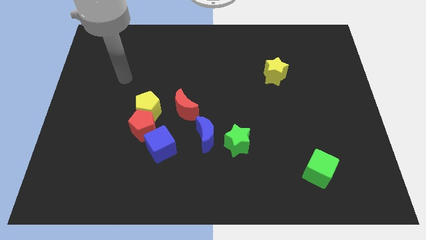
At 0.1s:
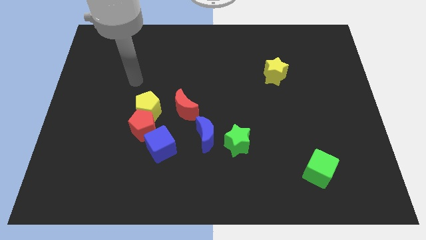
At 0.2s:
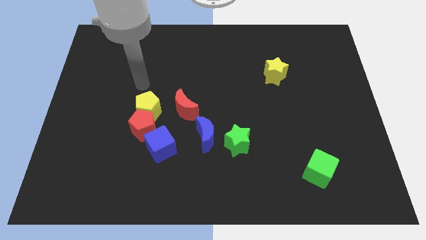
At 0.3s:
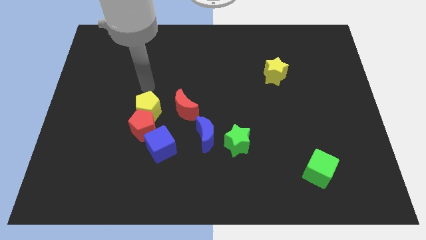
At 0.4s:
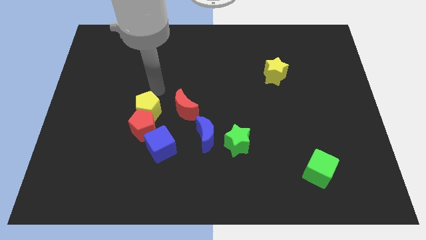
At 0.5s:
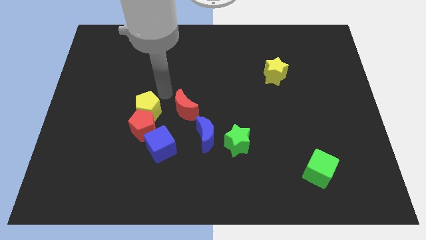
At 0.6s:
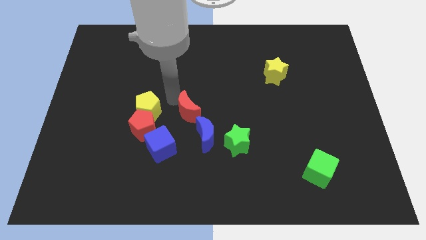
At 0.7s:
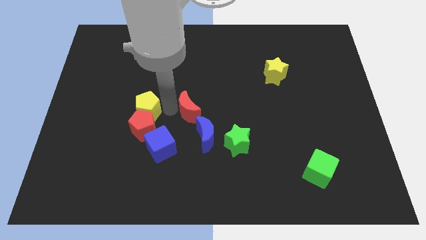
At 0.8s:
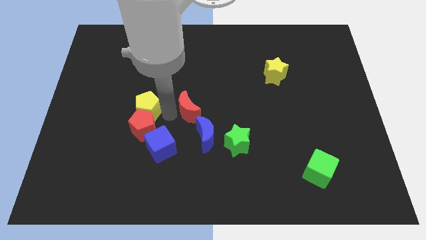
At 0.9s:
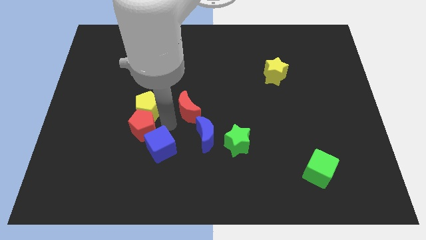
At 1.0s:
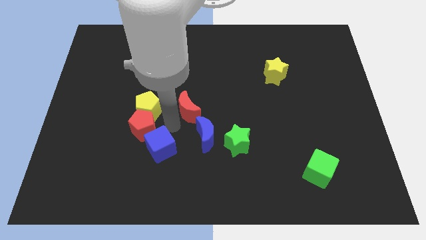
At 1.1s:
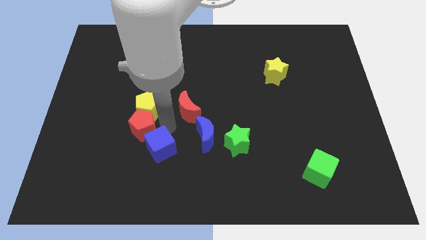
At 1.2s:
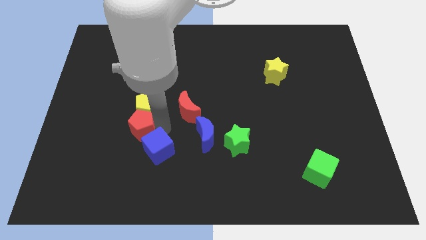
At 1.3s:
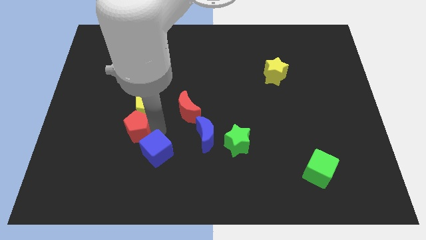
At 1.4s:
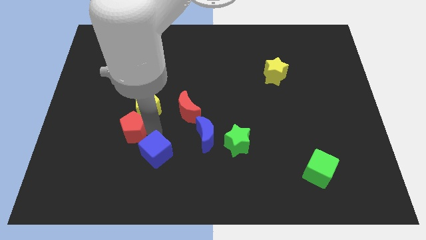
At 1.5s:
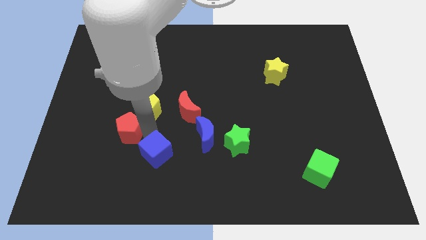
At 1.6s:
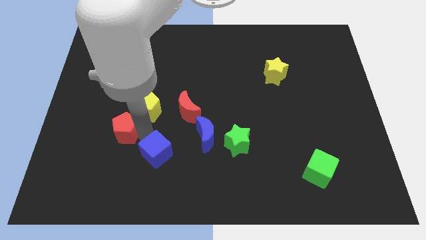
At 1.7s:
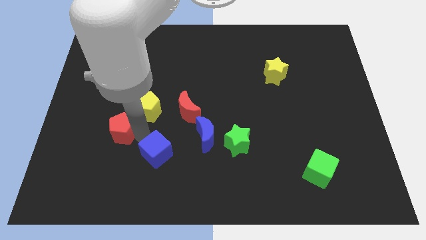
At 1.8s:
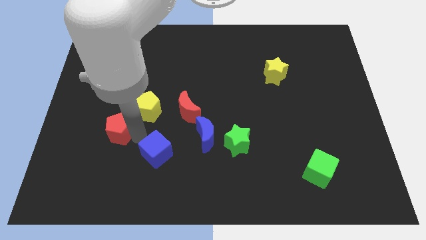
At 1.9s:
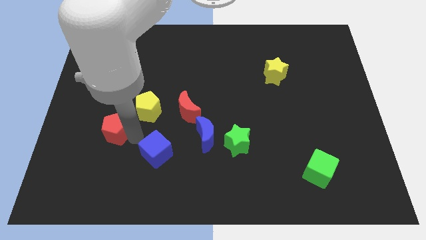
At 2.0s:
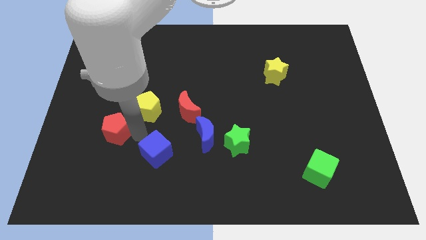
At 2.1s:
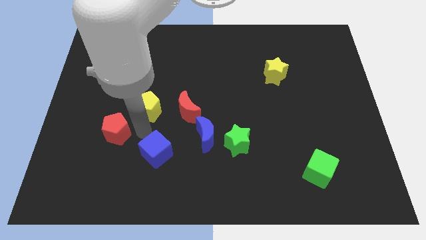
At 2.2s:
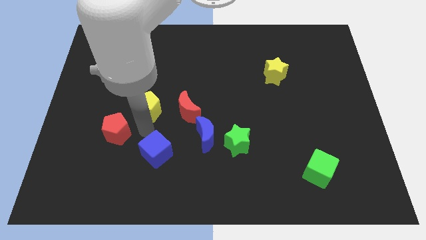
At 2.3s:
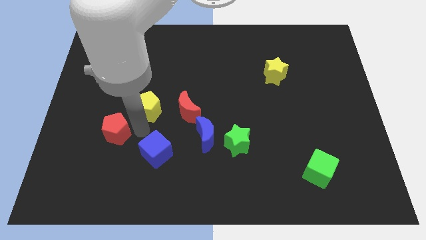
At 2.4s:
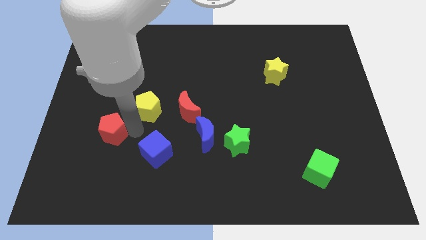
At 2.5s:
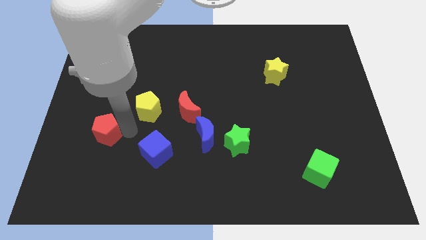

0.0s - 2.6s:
pull the red pentagon apart from the yellow pentagon and blue cube

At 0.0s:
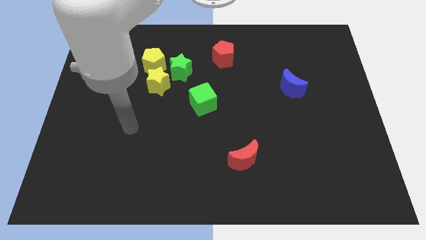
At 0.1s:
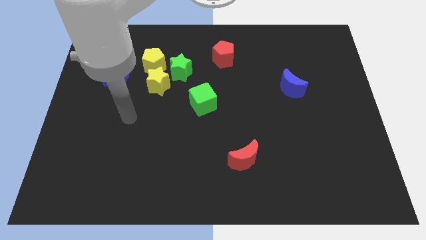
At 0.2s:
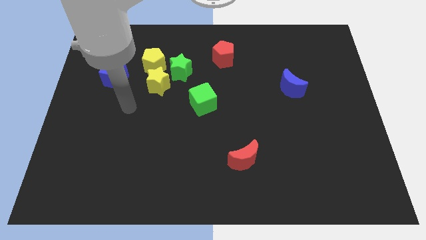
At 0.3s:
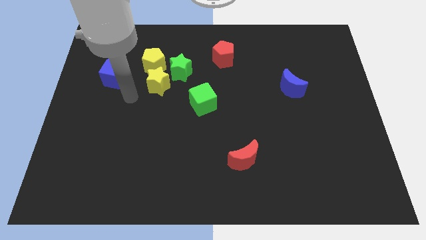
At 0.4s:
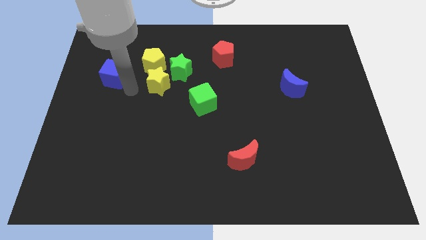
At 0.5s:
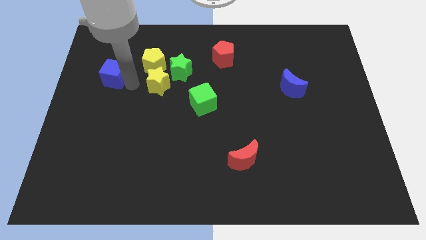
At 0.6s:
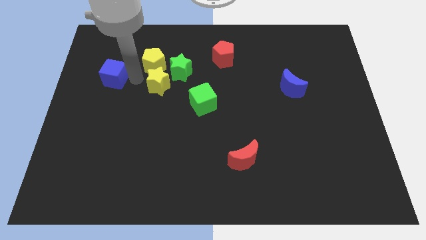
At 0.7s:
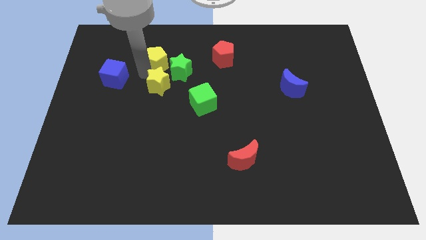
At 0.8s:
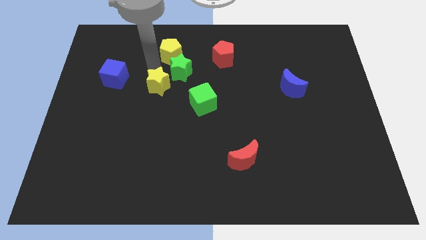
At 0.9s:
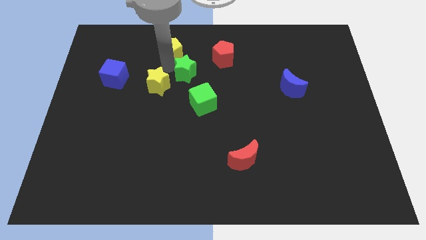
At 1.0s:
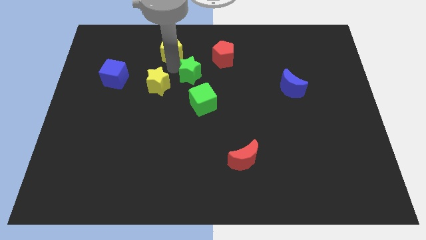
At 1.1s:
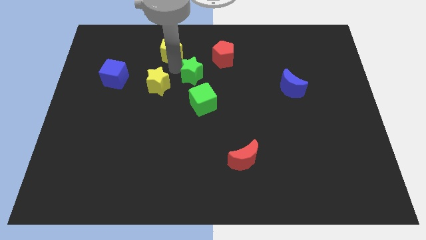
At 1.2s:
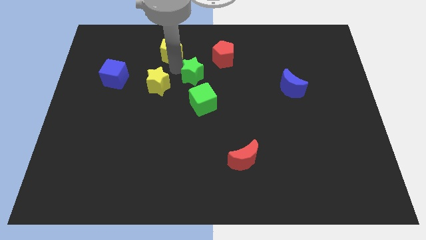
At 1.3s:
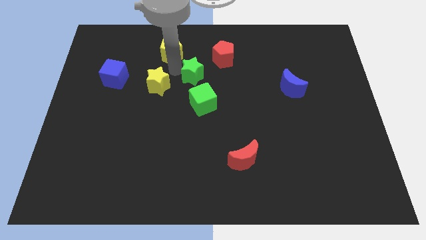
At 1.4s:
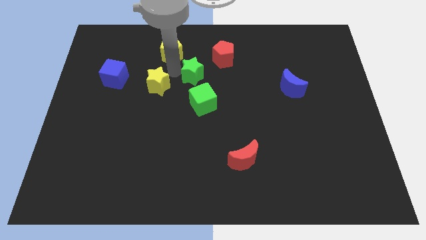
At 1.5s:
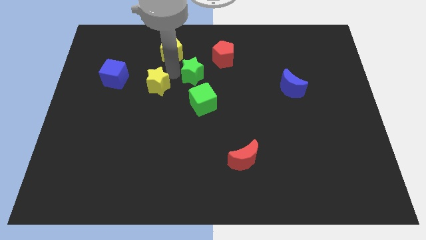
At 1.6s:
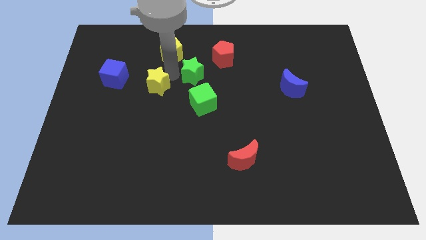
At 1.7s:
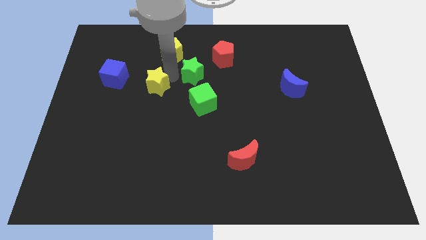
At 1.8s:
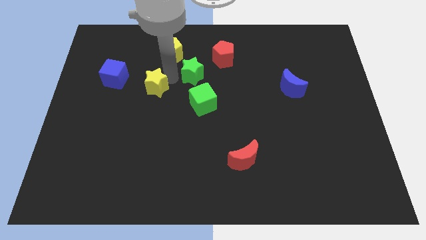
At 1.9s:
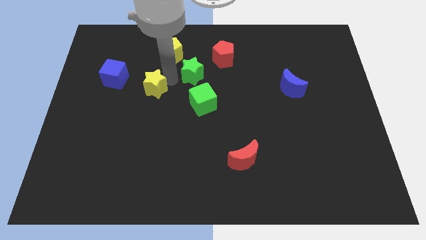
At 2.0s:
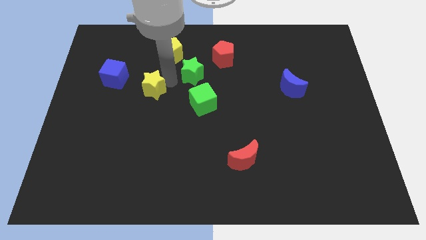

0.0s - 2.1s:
pull the yellow star apart from the green star and yellow pentagon

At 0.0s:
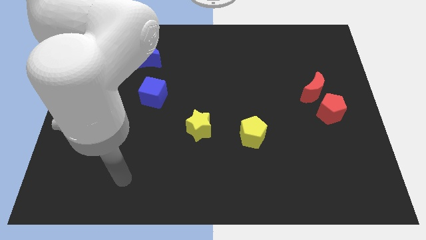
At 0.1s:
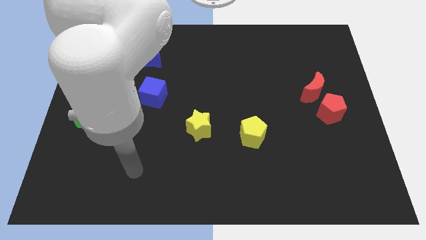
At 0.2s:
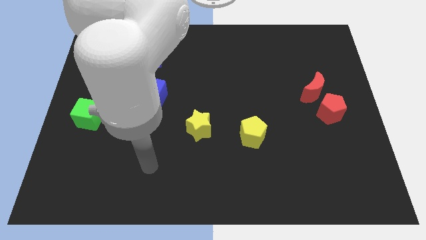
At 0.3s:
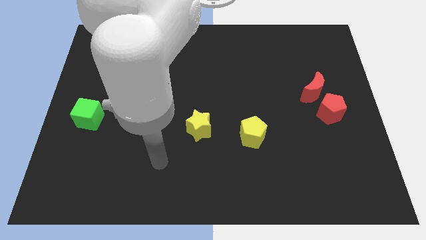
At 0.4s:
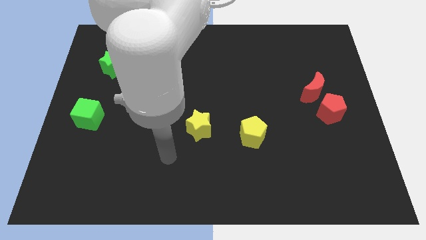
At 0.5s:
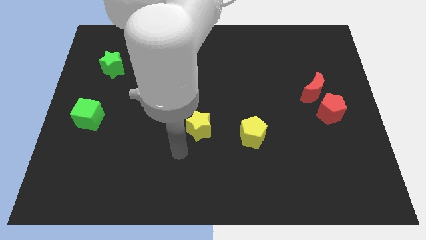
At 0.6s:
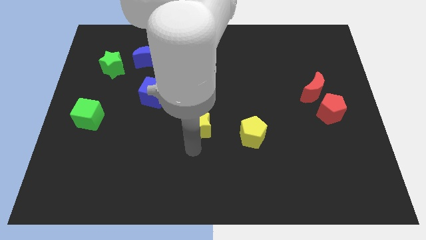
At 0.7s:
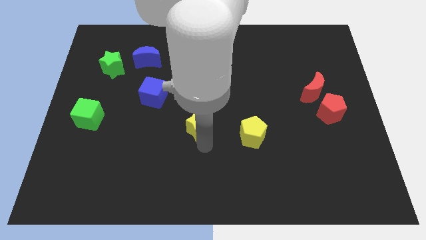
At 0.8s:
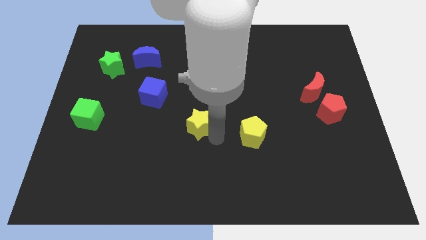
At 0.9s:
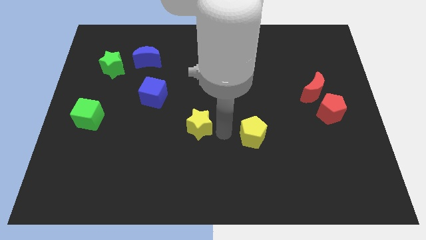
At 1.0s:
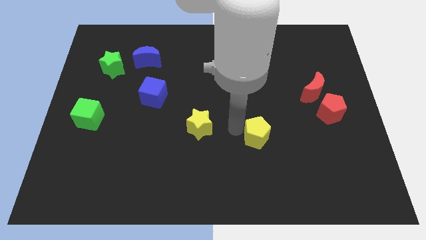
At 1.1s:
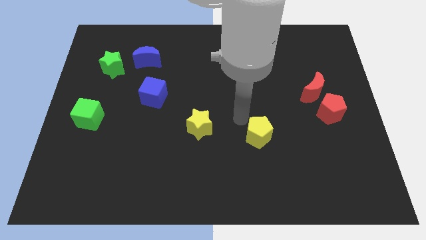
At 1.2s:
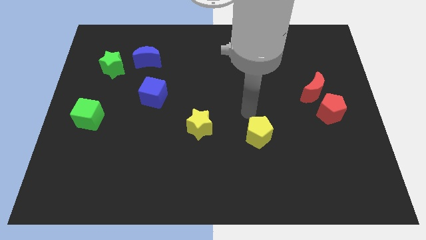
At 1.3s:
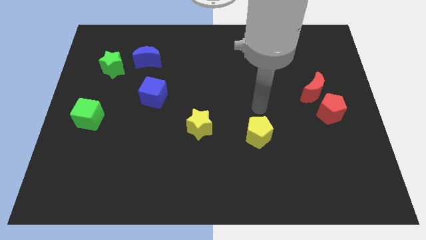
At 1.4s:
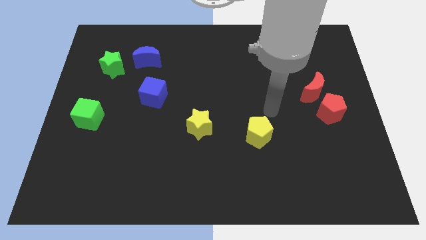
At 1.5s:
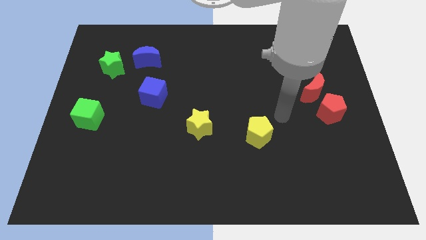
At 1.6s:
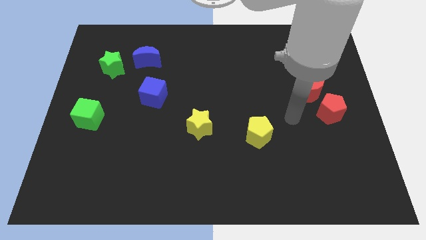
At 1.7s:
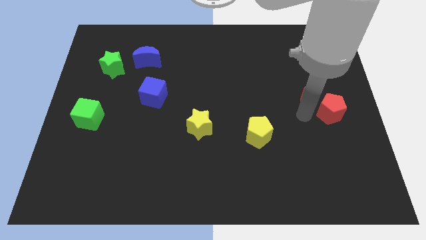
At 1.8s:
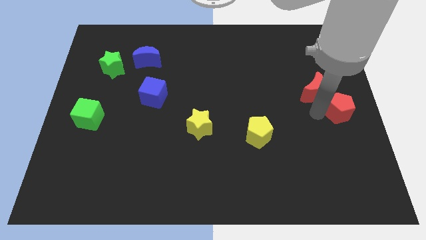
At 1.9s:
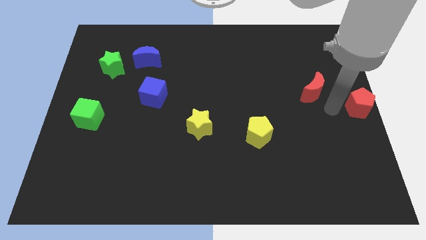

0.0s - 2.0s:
pull the red moon apart from the red pentagon

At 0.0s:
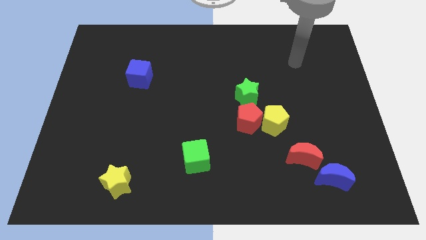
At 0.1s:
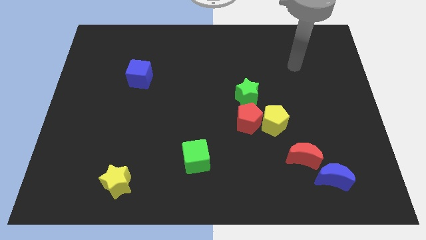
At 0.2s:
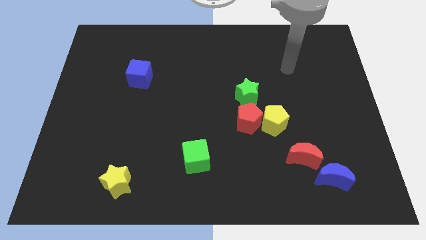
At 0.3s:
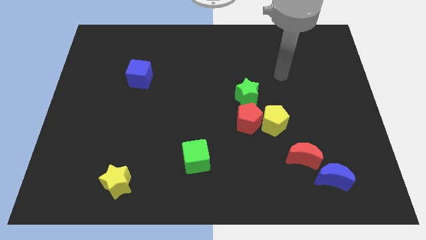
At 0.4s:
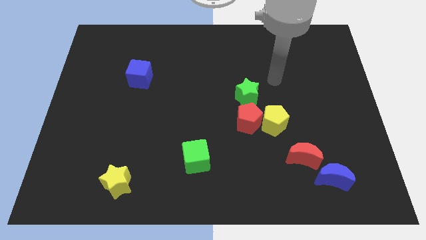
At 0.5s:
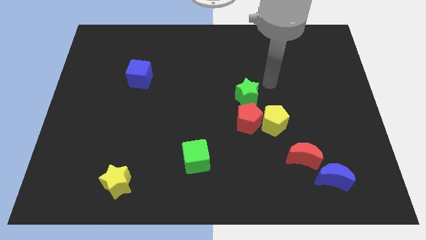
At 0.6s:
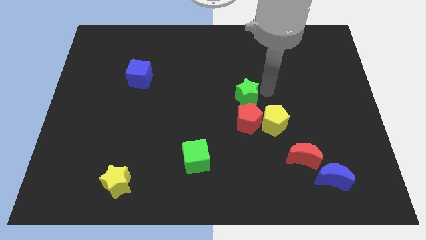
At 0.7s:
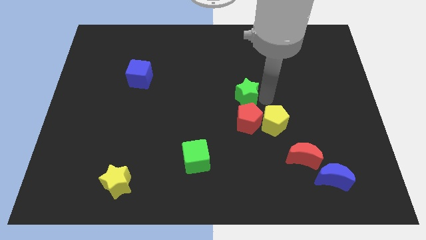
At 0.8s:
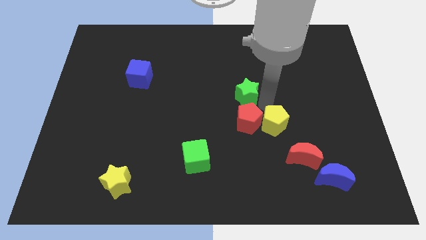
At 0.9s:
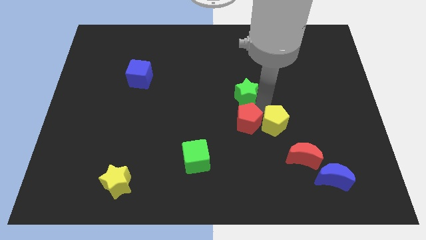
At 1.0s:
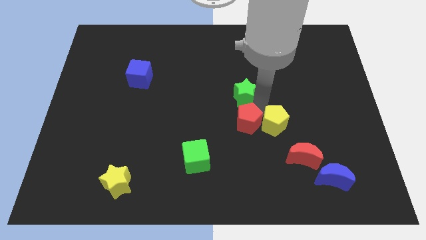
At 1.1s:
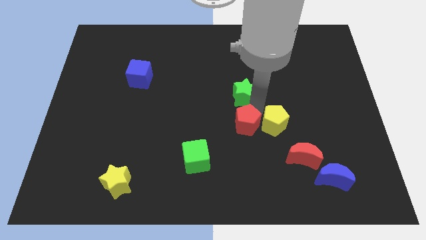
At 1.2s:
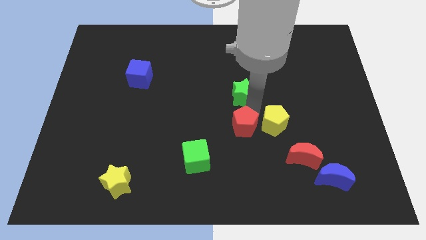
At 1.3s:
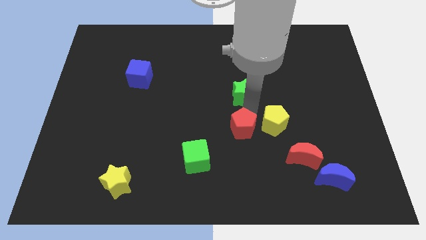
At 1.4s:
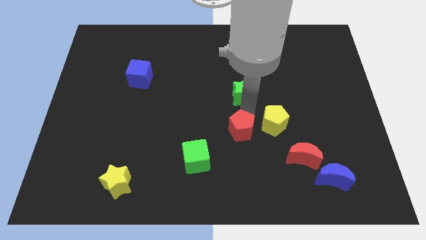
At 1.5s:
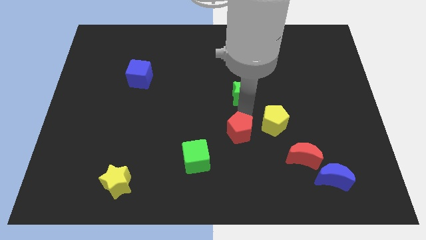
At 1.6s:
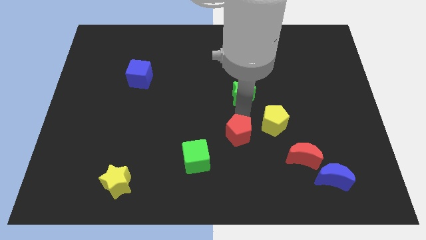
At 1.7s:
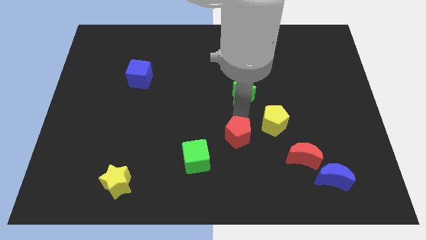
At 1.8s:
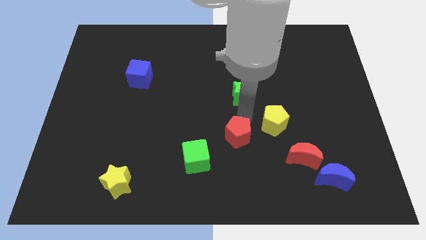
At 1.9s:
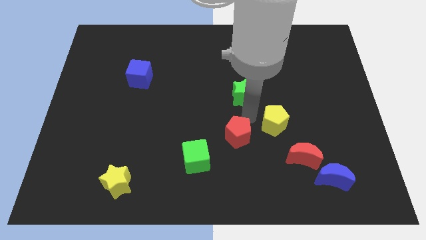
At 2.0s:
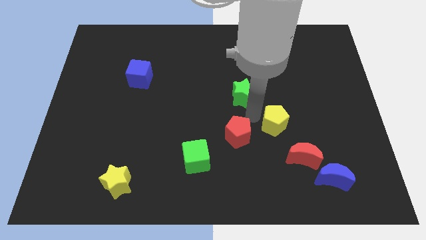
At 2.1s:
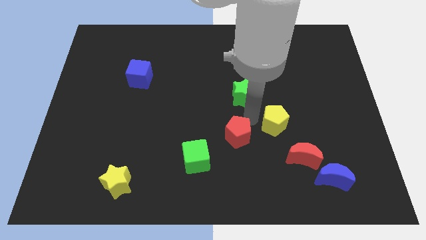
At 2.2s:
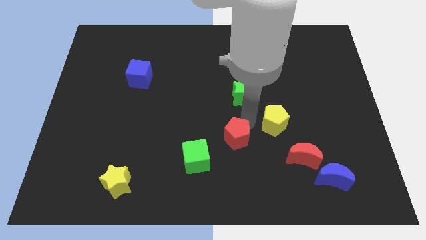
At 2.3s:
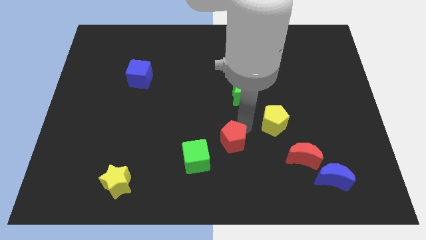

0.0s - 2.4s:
pull the red pentagon apart from the yellow pentagon and green star

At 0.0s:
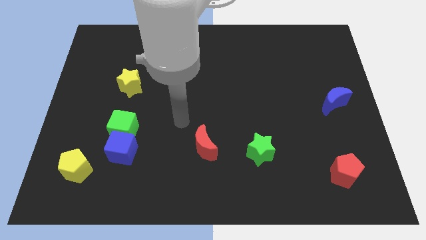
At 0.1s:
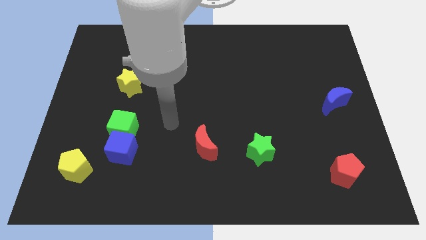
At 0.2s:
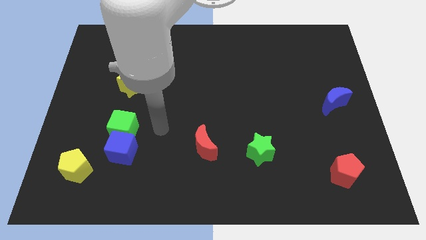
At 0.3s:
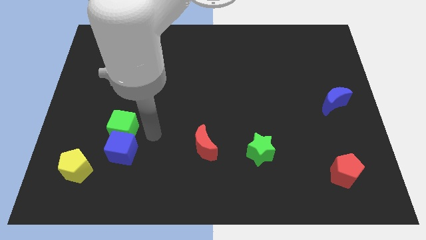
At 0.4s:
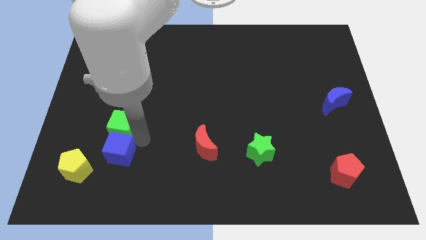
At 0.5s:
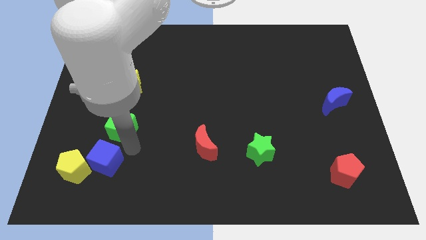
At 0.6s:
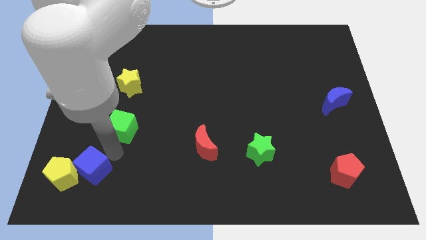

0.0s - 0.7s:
separate the green cube from the blue cube
